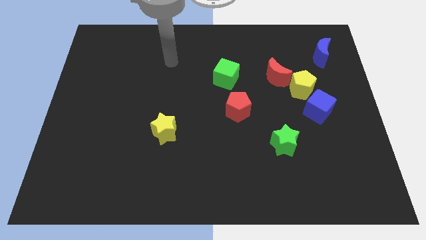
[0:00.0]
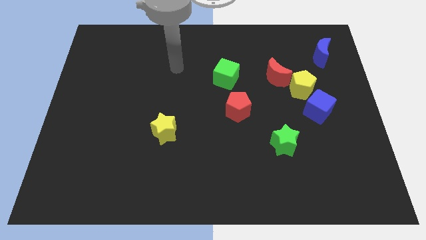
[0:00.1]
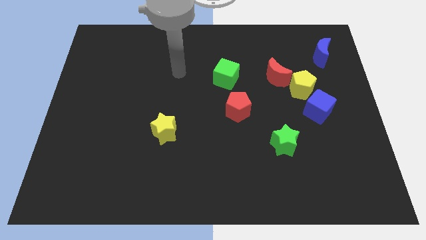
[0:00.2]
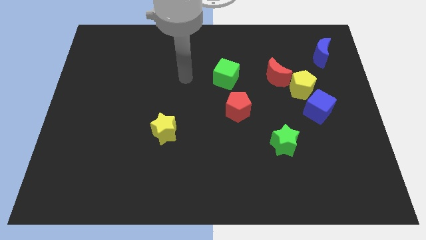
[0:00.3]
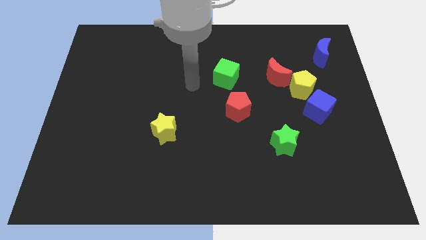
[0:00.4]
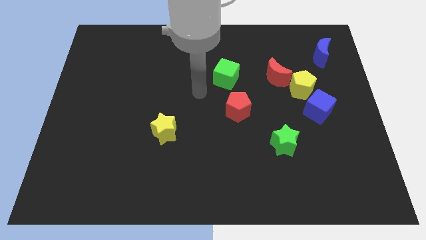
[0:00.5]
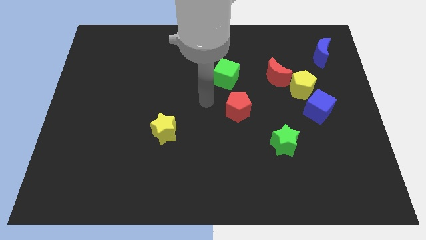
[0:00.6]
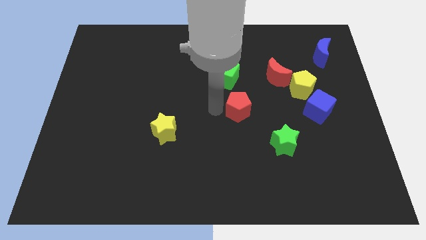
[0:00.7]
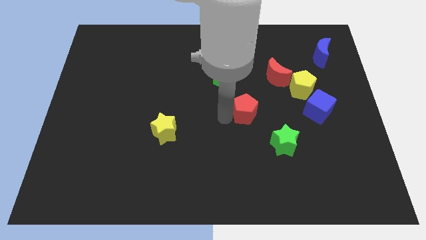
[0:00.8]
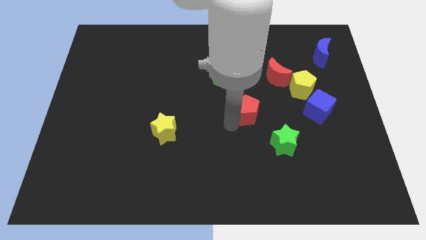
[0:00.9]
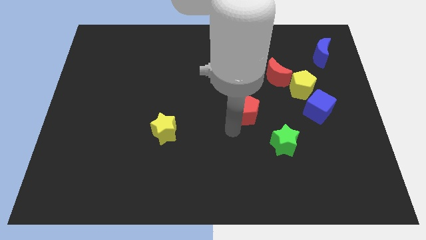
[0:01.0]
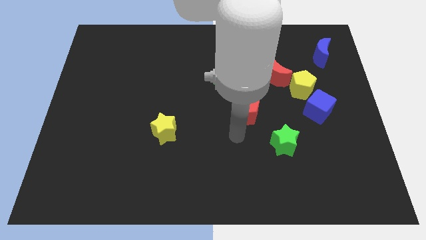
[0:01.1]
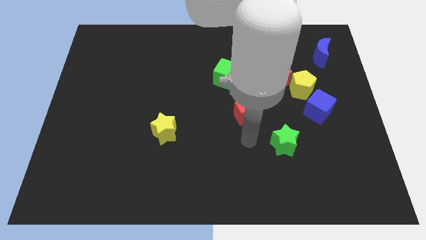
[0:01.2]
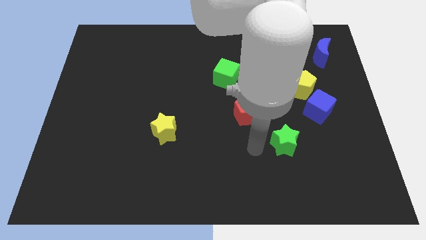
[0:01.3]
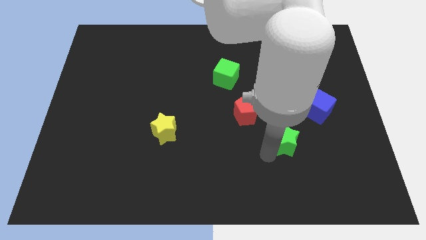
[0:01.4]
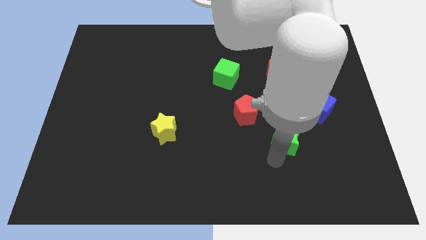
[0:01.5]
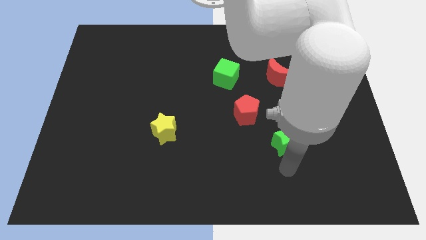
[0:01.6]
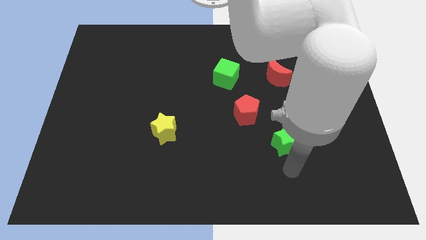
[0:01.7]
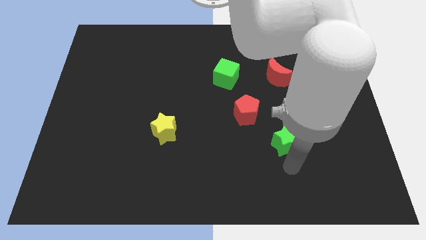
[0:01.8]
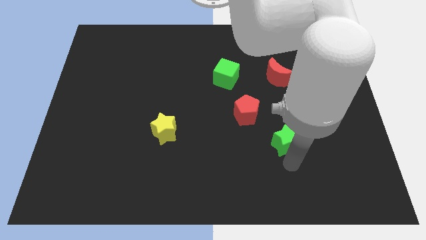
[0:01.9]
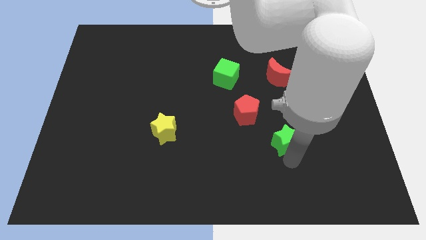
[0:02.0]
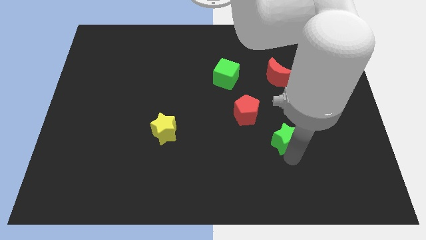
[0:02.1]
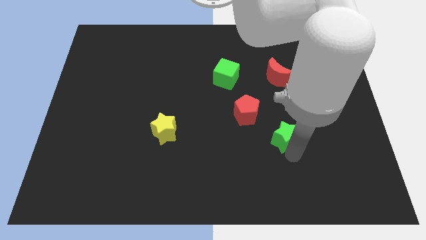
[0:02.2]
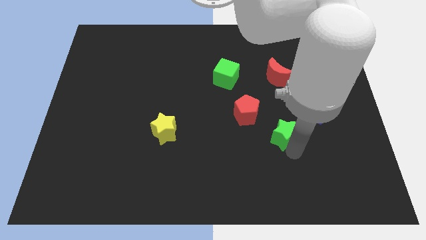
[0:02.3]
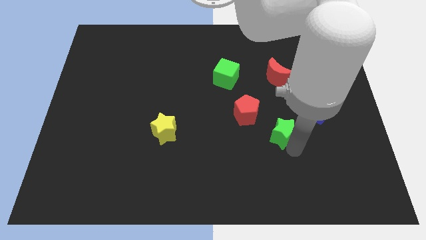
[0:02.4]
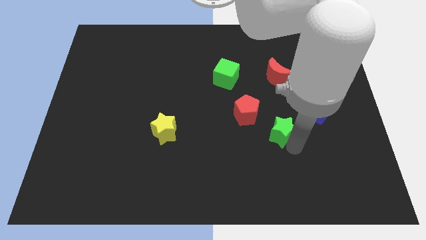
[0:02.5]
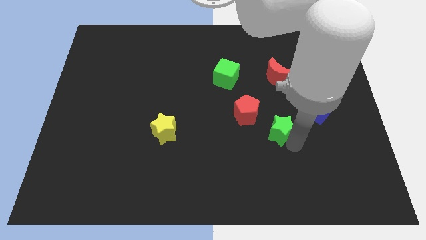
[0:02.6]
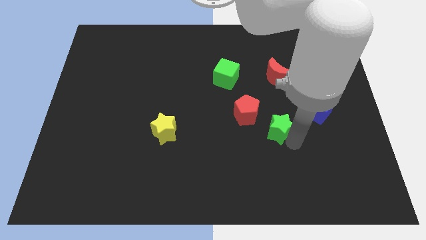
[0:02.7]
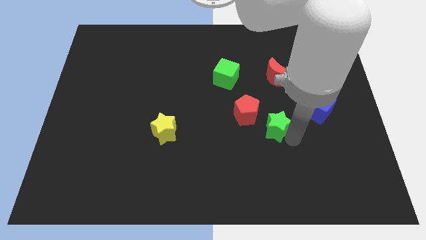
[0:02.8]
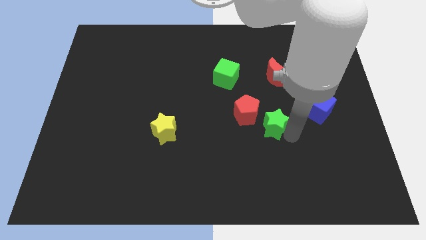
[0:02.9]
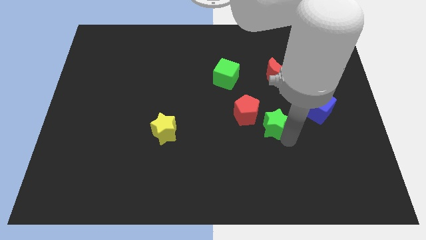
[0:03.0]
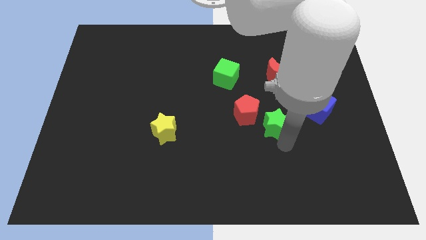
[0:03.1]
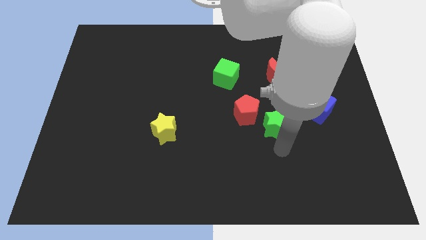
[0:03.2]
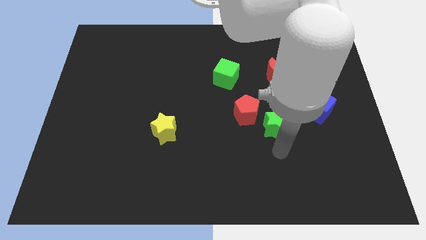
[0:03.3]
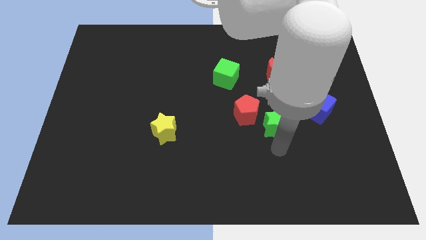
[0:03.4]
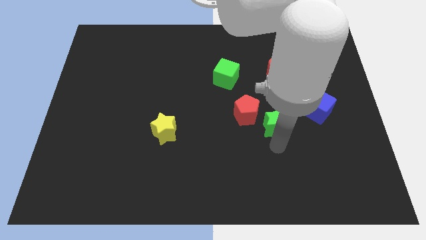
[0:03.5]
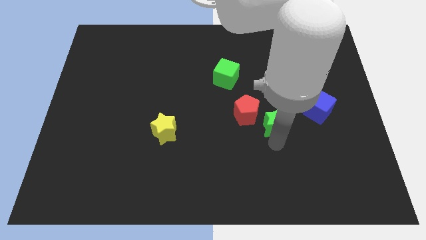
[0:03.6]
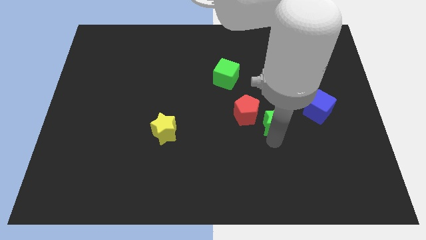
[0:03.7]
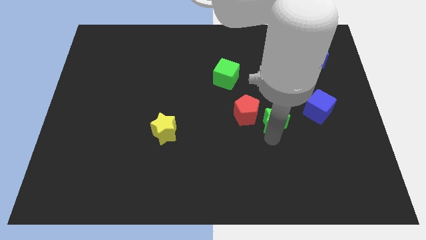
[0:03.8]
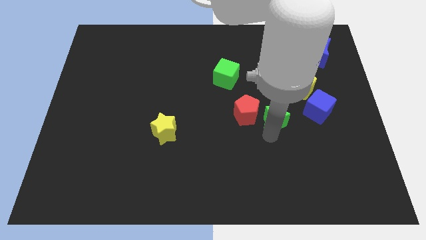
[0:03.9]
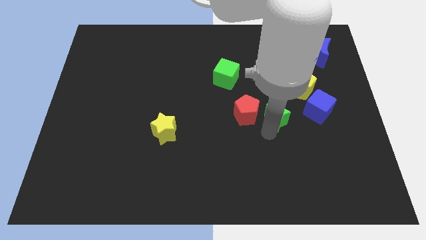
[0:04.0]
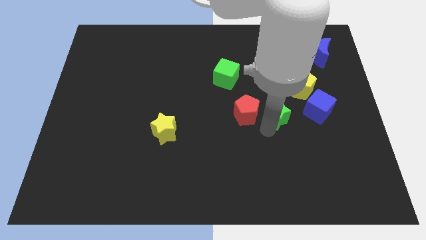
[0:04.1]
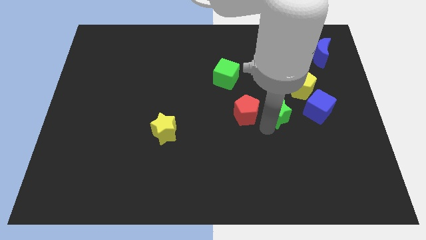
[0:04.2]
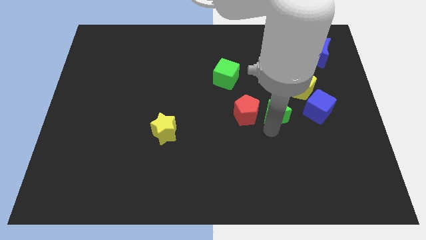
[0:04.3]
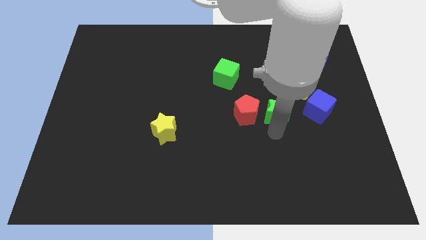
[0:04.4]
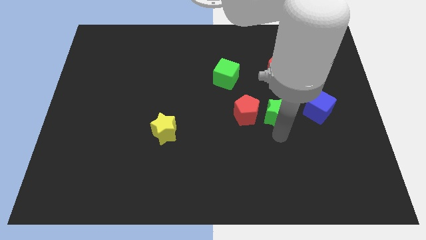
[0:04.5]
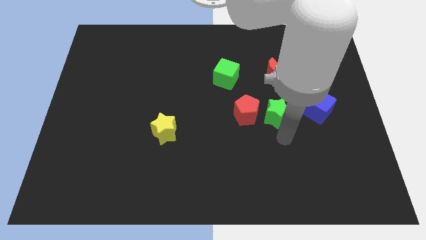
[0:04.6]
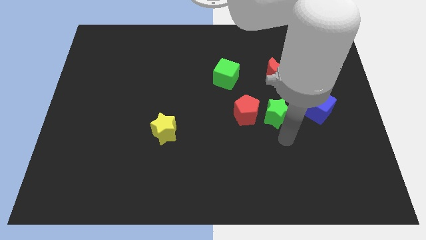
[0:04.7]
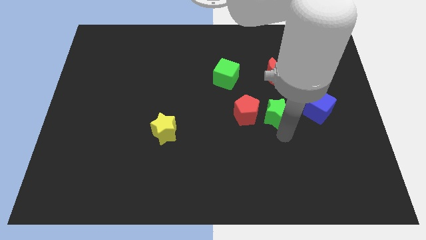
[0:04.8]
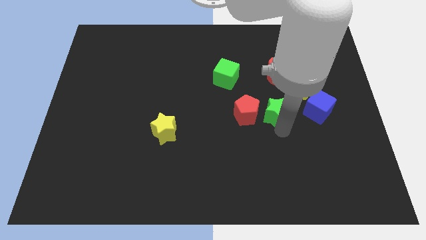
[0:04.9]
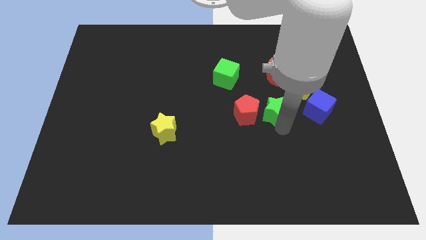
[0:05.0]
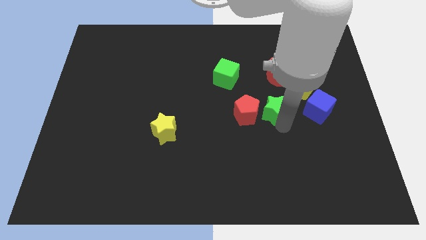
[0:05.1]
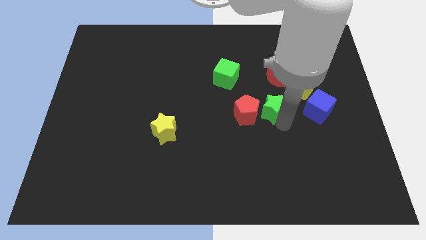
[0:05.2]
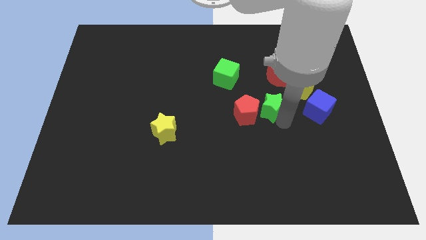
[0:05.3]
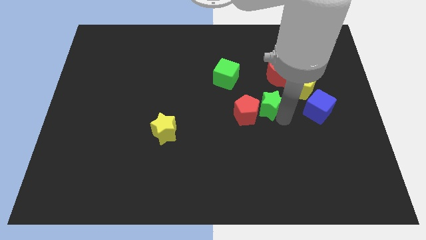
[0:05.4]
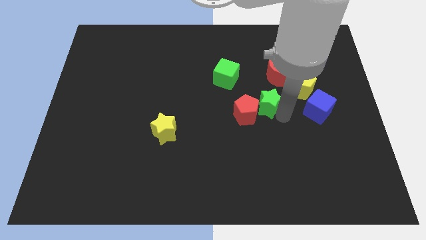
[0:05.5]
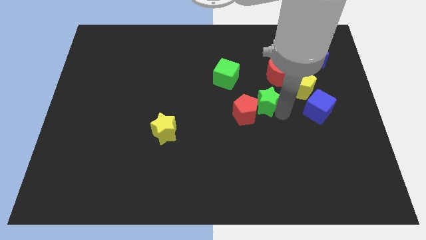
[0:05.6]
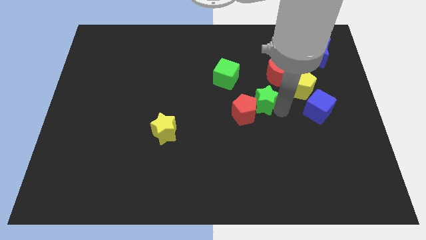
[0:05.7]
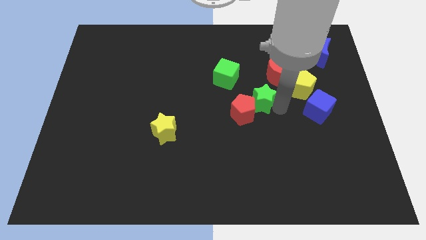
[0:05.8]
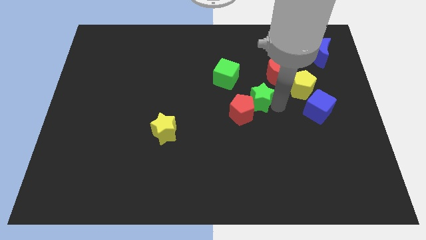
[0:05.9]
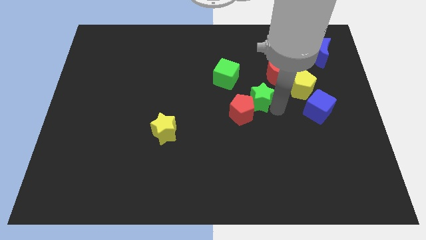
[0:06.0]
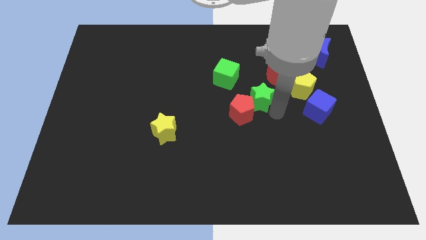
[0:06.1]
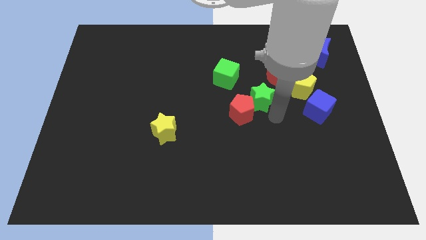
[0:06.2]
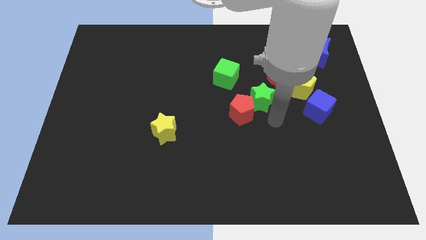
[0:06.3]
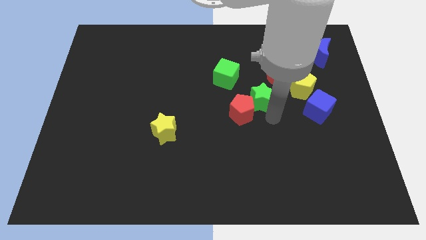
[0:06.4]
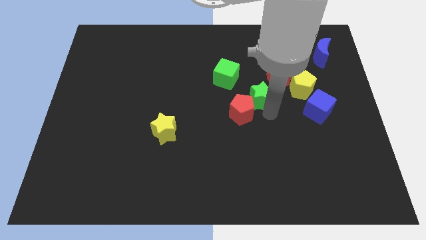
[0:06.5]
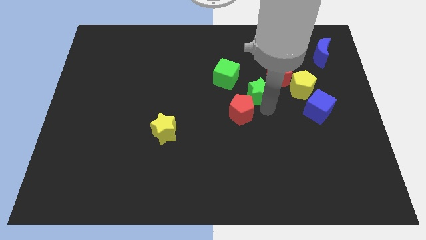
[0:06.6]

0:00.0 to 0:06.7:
put the green star to the top of the red pentagon

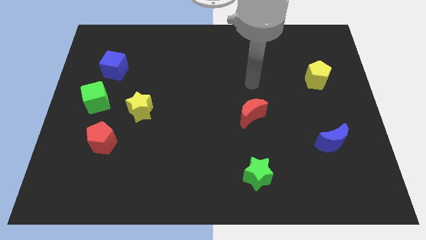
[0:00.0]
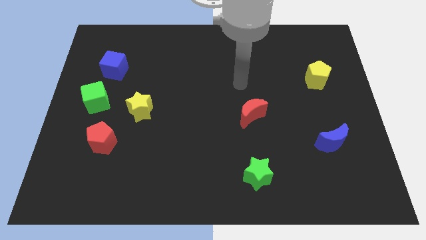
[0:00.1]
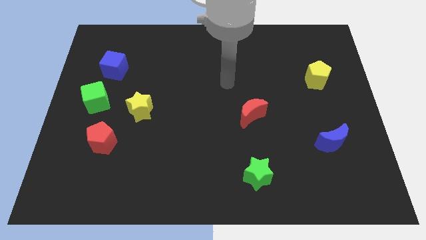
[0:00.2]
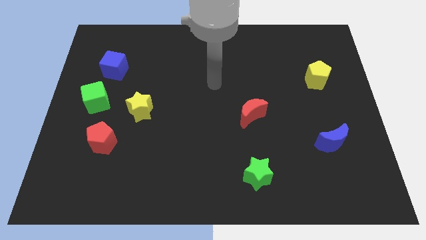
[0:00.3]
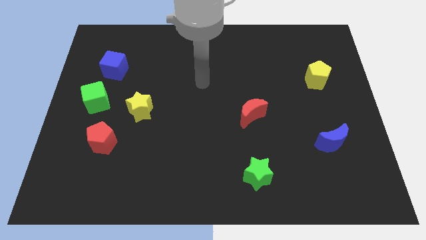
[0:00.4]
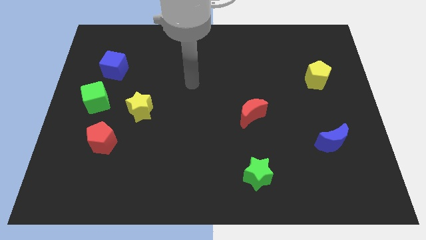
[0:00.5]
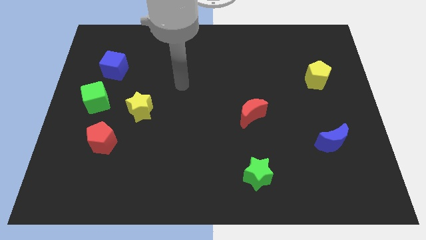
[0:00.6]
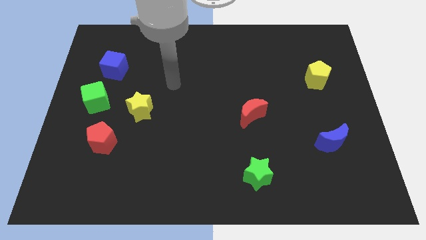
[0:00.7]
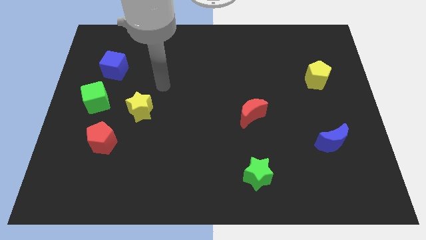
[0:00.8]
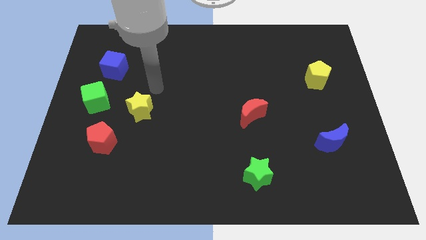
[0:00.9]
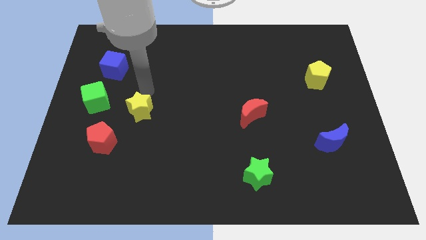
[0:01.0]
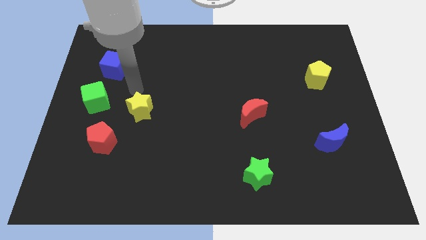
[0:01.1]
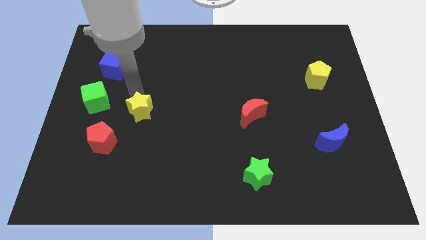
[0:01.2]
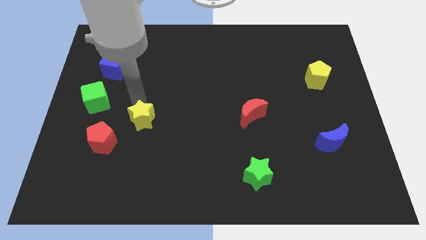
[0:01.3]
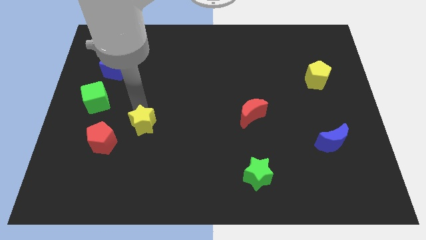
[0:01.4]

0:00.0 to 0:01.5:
push the yellow star right of the red pentagon

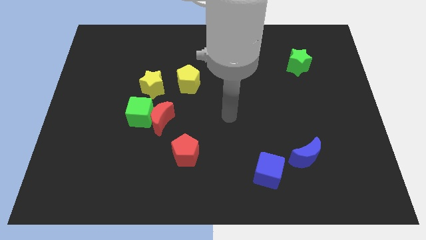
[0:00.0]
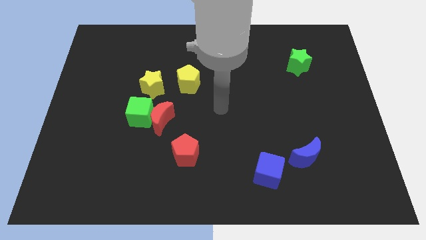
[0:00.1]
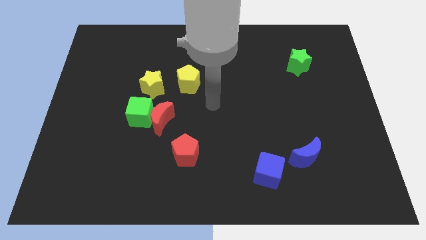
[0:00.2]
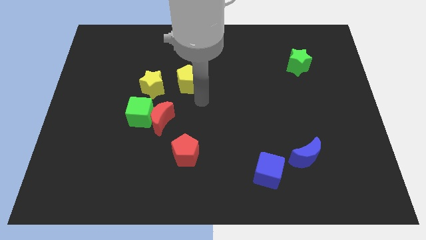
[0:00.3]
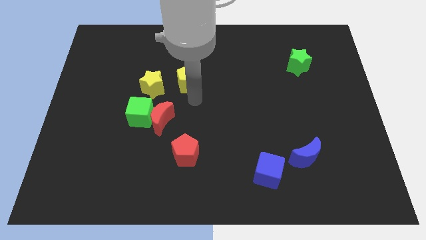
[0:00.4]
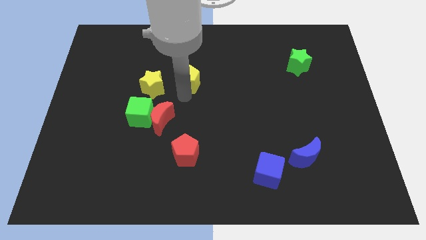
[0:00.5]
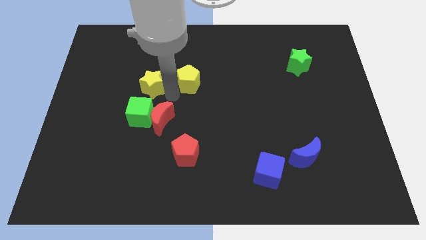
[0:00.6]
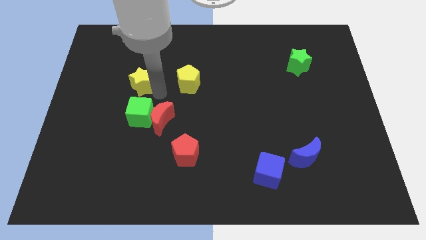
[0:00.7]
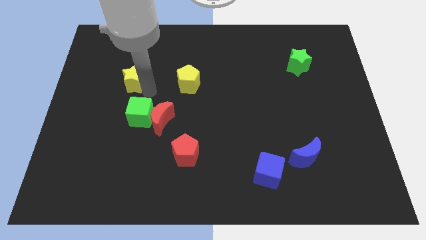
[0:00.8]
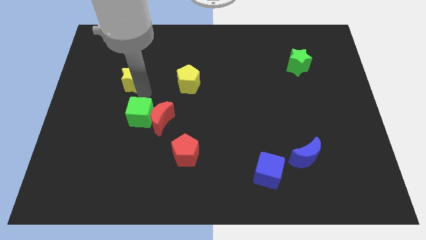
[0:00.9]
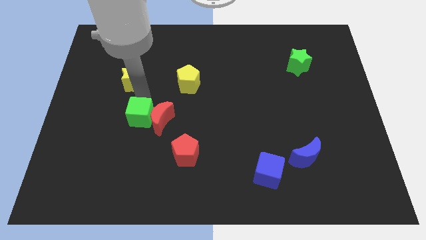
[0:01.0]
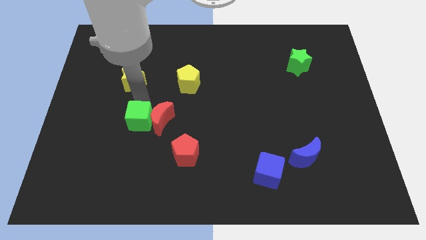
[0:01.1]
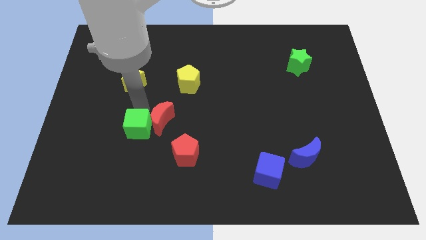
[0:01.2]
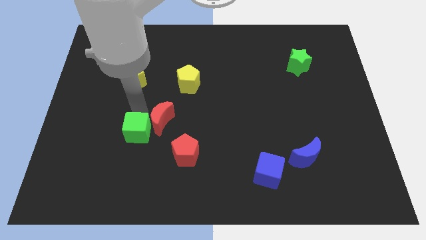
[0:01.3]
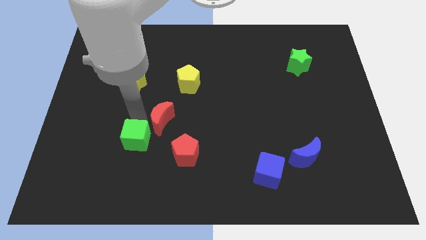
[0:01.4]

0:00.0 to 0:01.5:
put the green cube left of the red pentagon
